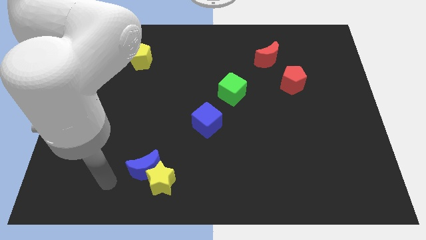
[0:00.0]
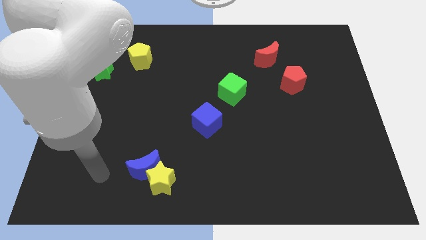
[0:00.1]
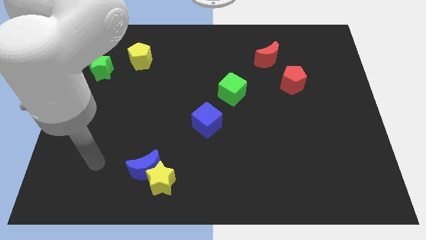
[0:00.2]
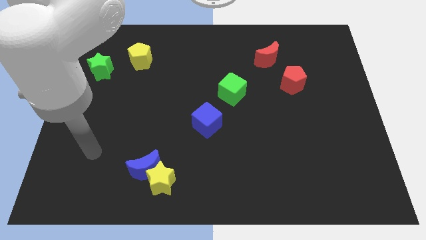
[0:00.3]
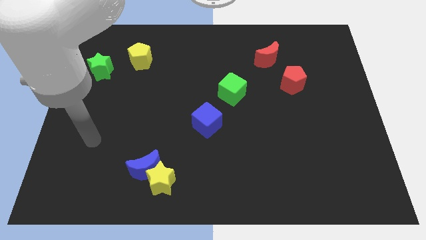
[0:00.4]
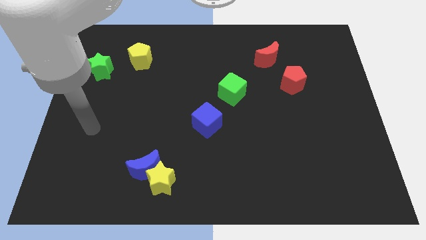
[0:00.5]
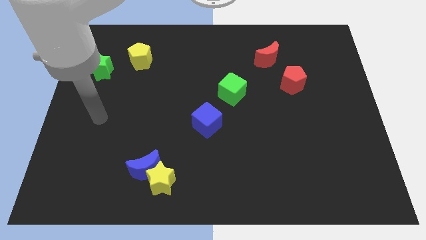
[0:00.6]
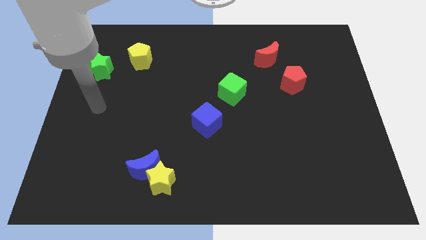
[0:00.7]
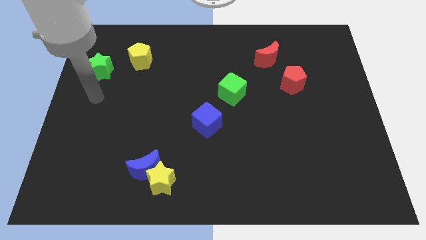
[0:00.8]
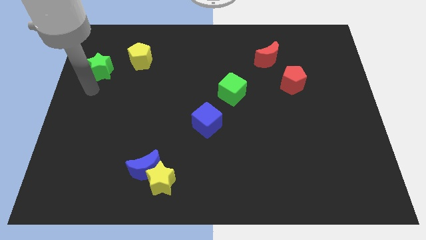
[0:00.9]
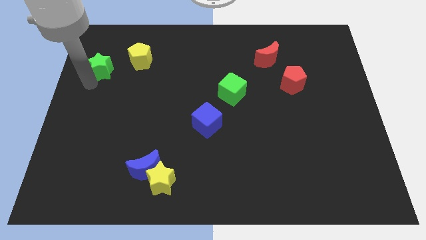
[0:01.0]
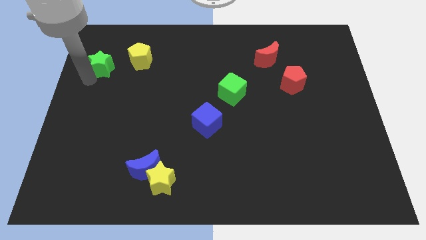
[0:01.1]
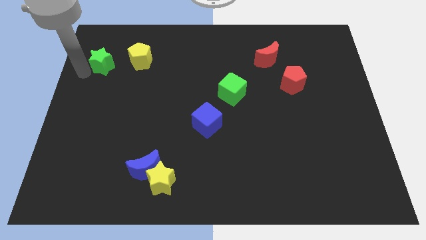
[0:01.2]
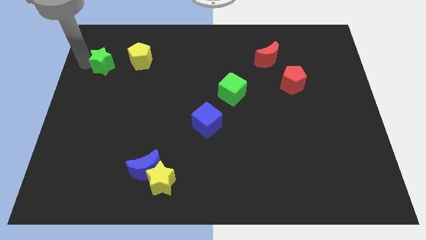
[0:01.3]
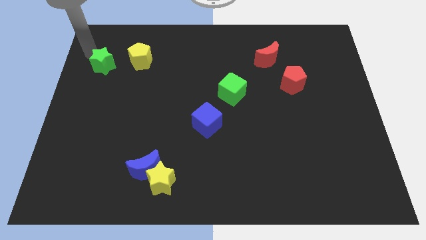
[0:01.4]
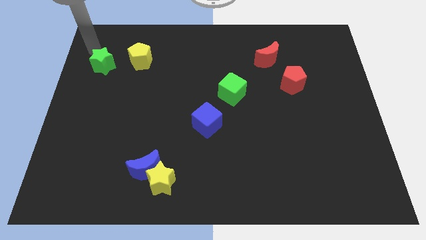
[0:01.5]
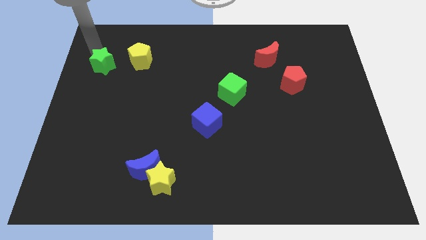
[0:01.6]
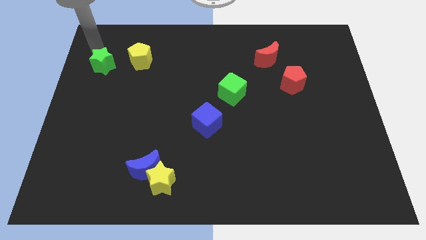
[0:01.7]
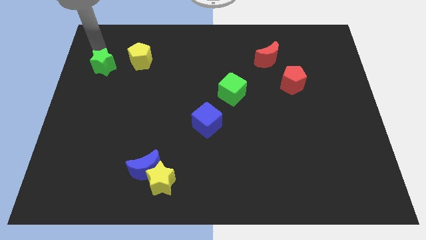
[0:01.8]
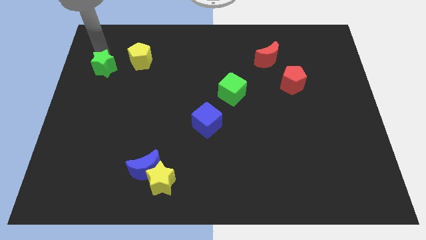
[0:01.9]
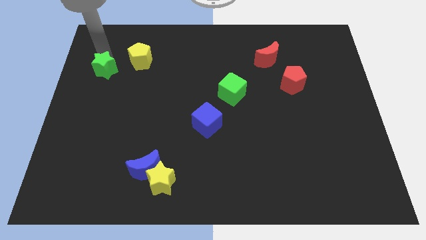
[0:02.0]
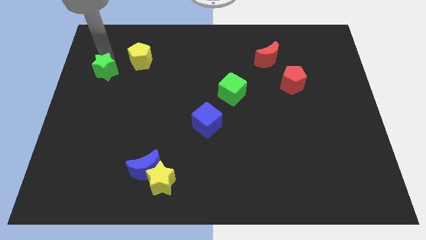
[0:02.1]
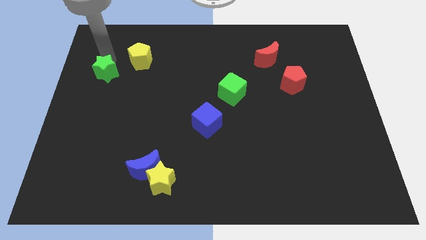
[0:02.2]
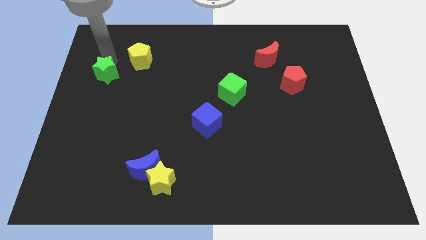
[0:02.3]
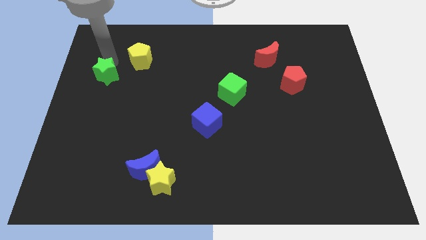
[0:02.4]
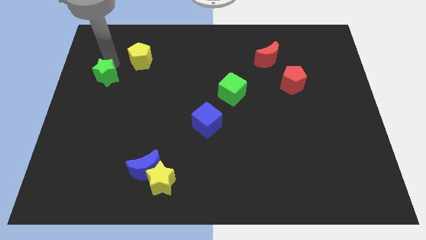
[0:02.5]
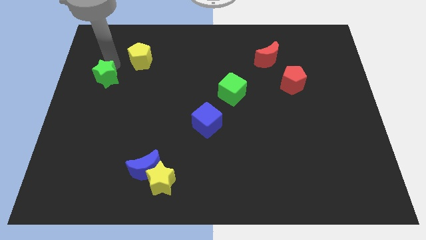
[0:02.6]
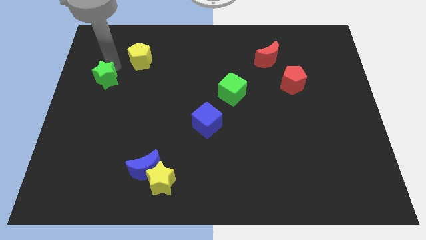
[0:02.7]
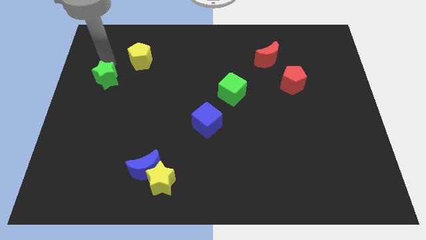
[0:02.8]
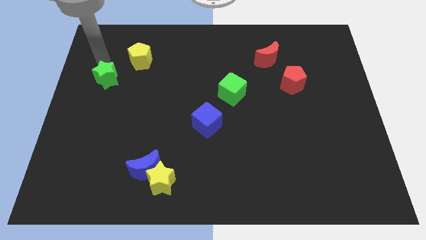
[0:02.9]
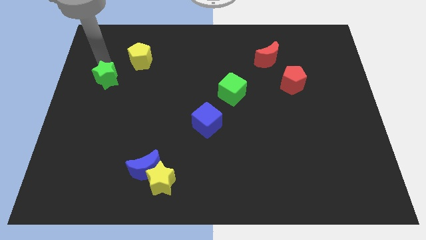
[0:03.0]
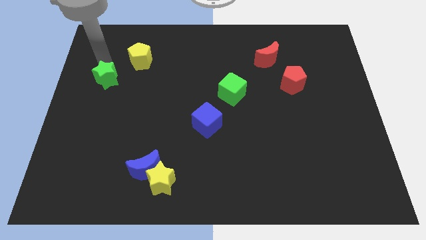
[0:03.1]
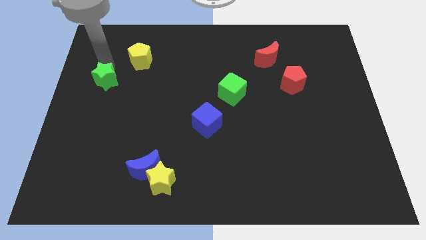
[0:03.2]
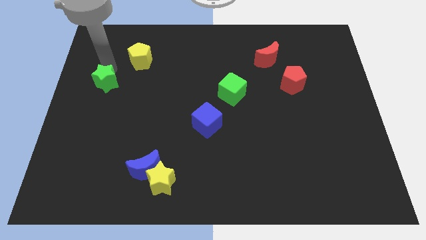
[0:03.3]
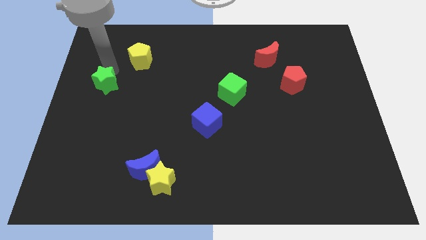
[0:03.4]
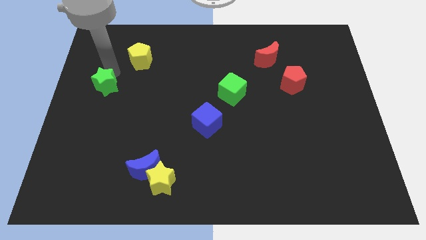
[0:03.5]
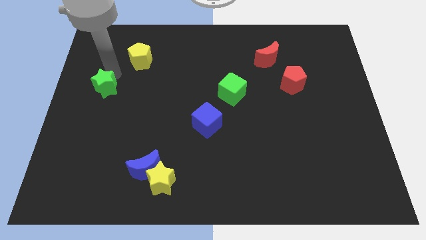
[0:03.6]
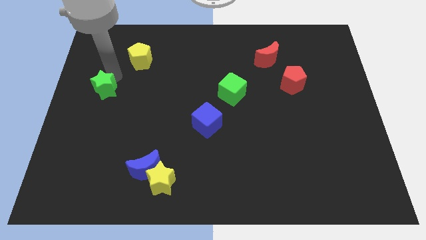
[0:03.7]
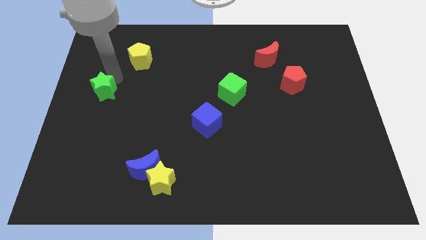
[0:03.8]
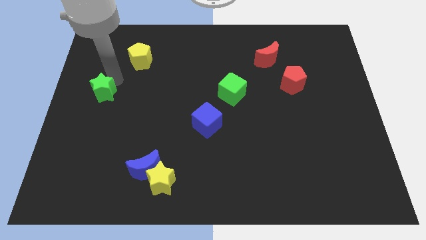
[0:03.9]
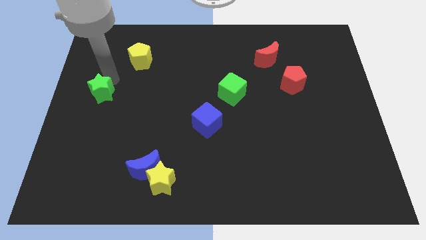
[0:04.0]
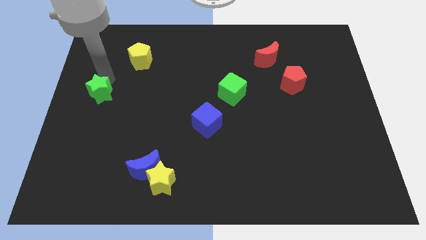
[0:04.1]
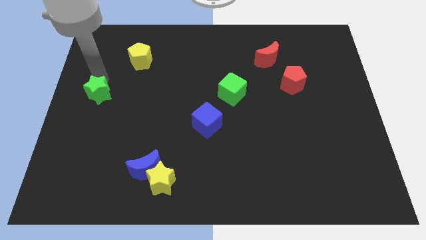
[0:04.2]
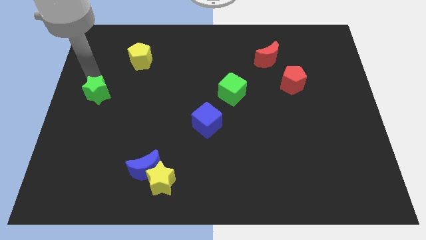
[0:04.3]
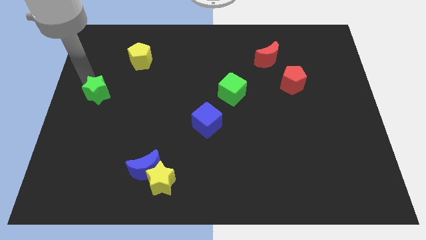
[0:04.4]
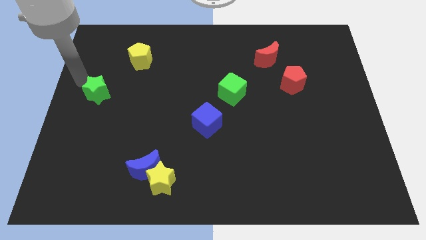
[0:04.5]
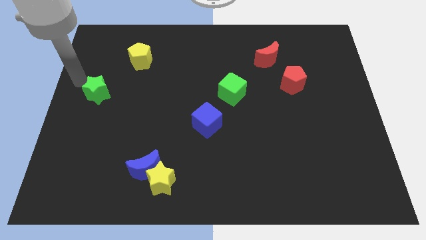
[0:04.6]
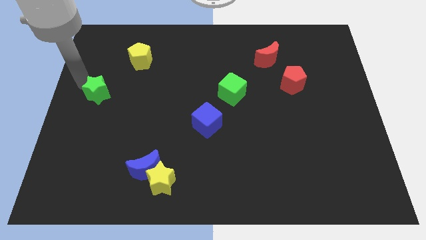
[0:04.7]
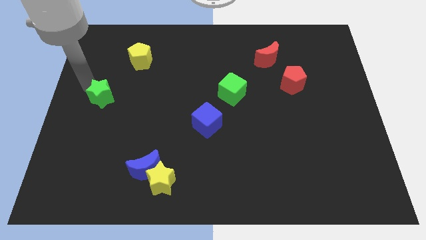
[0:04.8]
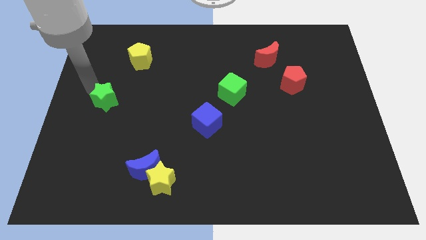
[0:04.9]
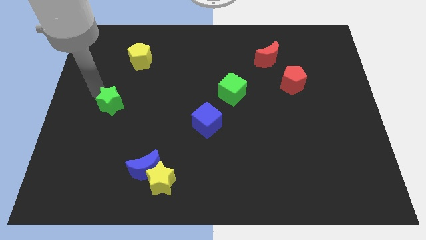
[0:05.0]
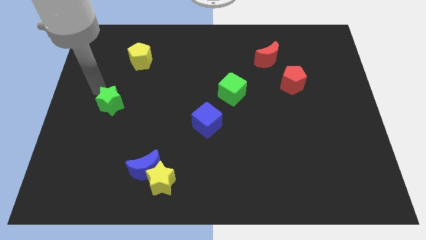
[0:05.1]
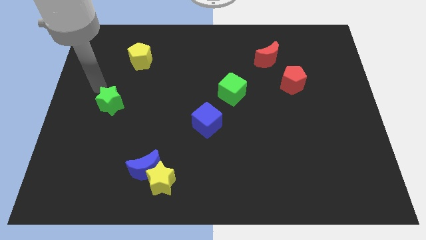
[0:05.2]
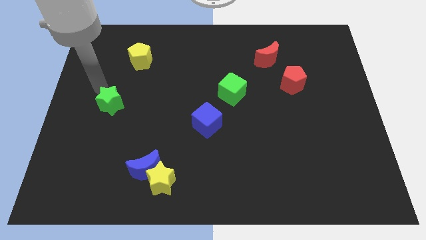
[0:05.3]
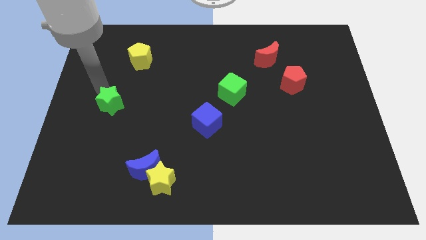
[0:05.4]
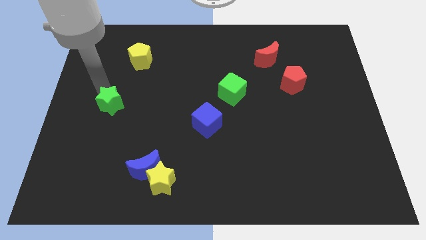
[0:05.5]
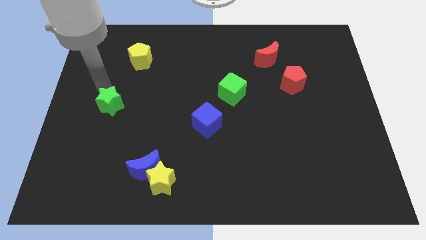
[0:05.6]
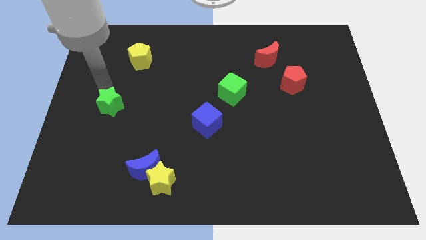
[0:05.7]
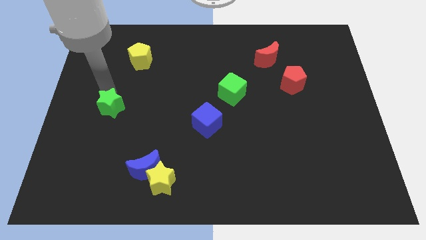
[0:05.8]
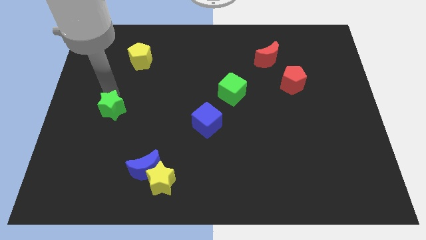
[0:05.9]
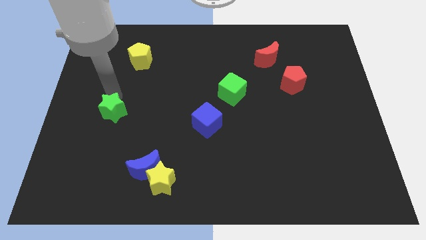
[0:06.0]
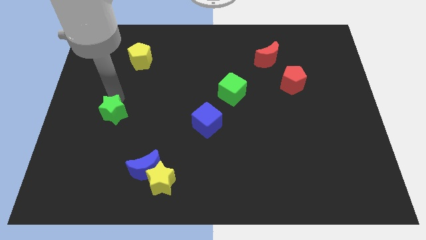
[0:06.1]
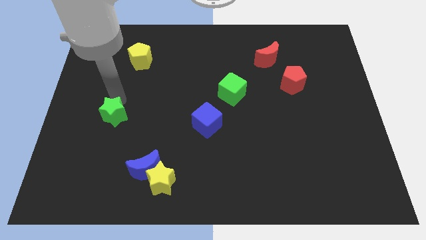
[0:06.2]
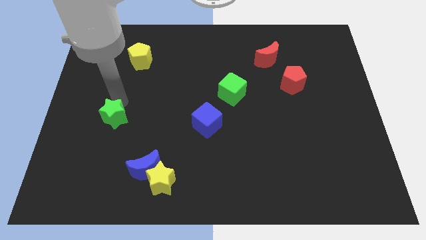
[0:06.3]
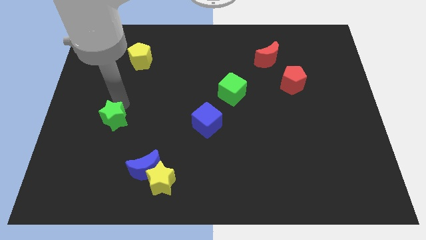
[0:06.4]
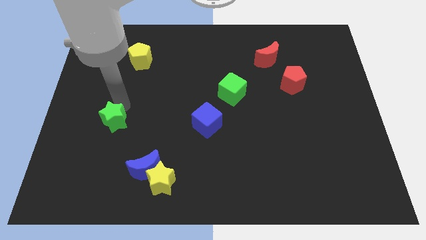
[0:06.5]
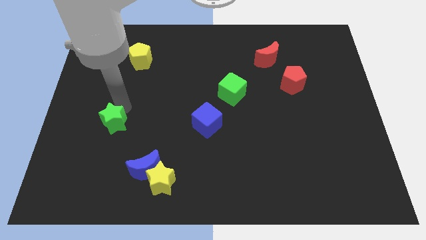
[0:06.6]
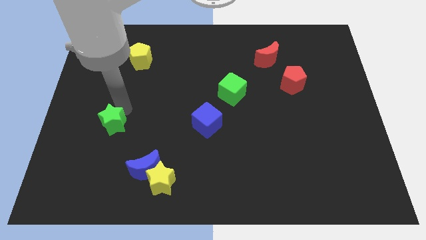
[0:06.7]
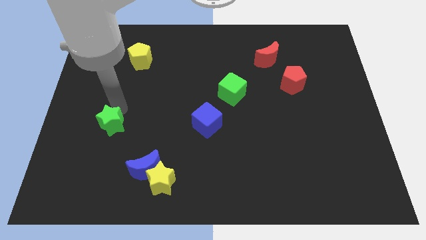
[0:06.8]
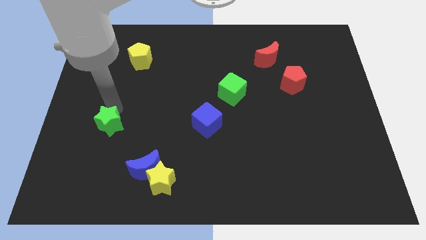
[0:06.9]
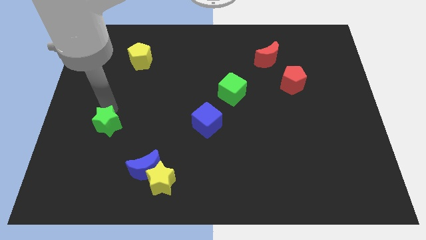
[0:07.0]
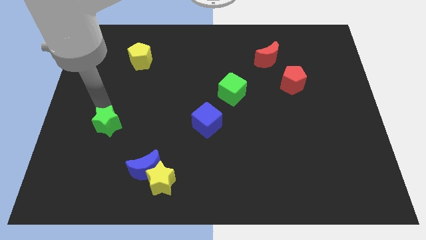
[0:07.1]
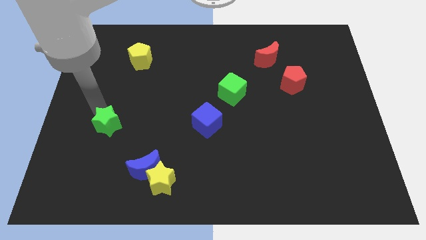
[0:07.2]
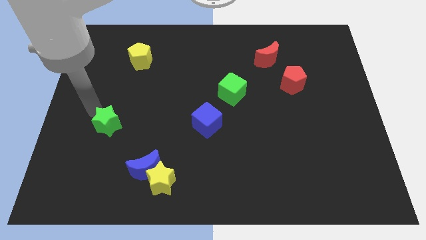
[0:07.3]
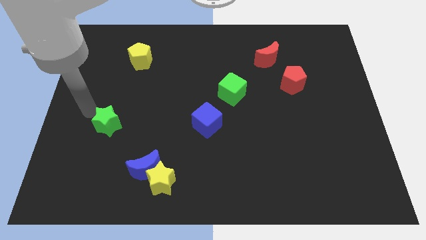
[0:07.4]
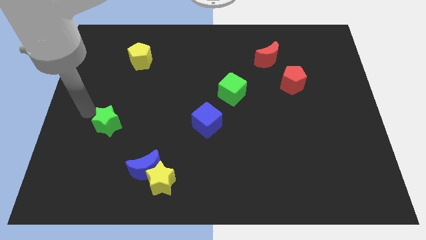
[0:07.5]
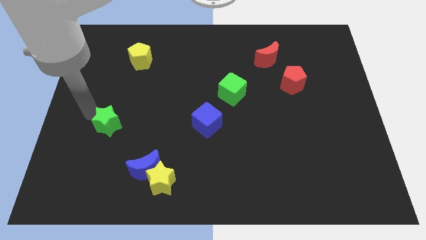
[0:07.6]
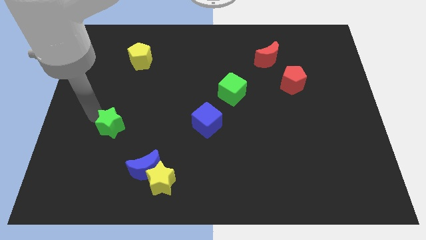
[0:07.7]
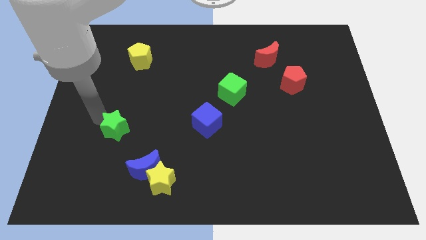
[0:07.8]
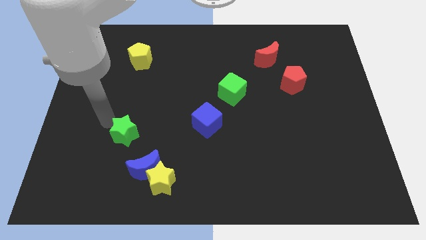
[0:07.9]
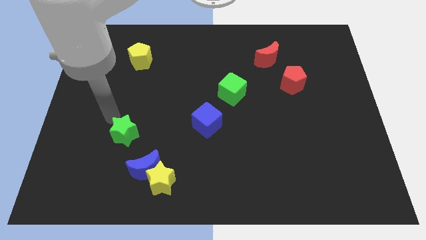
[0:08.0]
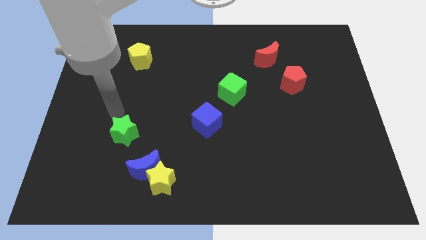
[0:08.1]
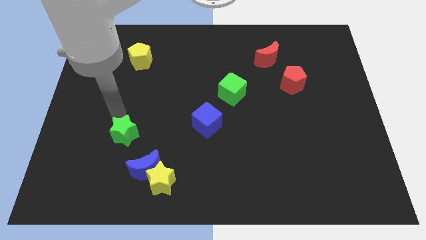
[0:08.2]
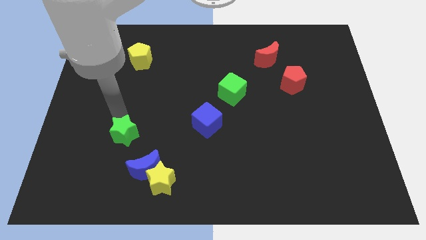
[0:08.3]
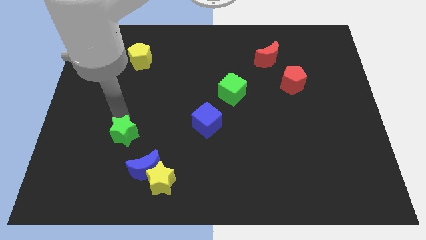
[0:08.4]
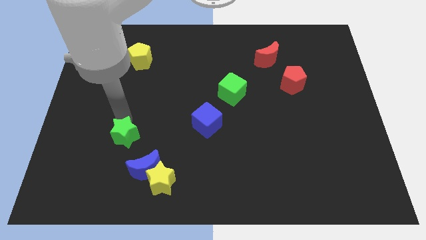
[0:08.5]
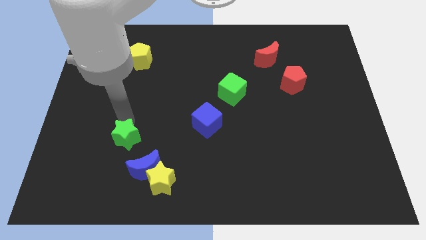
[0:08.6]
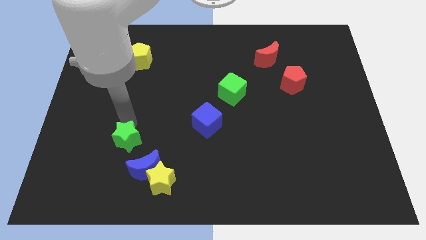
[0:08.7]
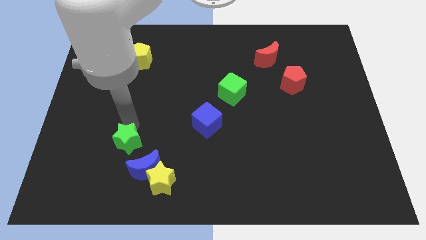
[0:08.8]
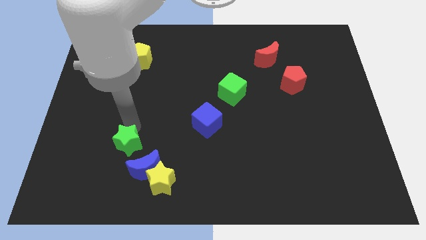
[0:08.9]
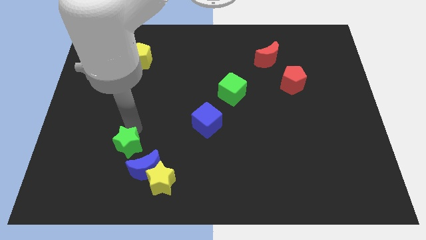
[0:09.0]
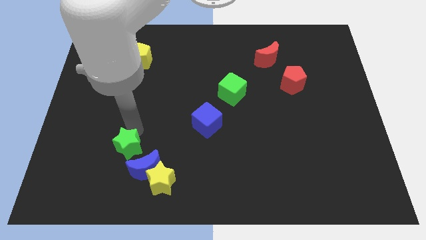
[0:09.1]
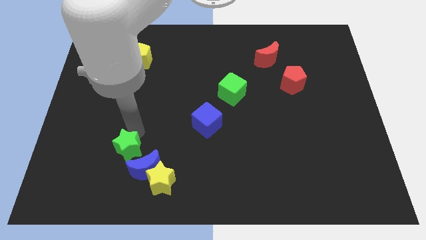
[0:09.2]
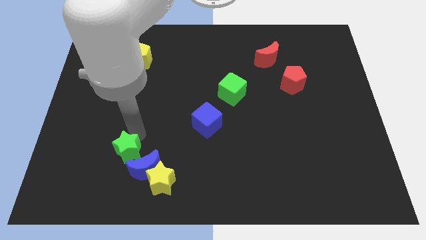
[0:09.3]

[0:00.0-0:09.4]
put the green star close to the blue moon
